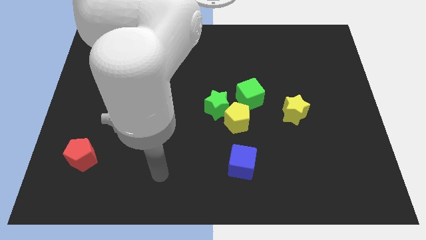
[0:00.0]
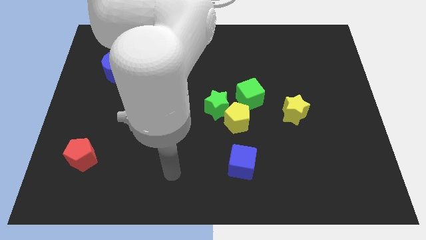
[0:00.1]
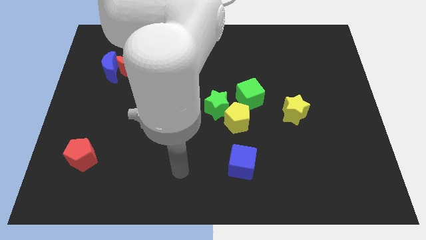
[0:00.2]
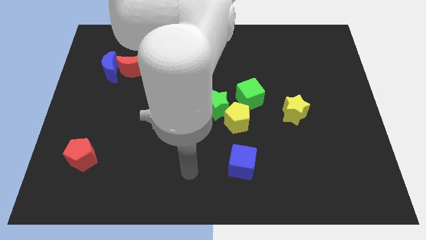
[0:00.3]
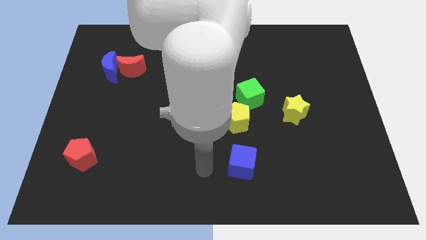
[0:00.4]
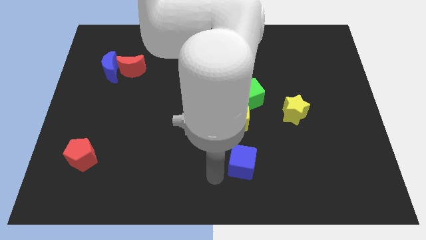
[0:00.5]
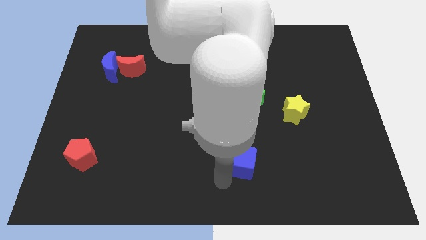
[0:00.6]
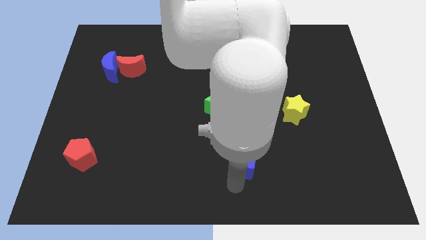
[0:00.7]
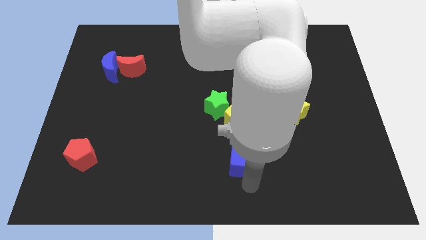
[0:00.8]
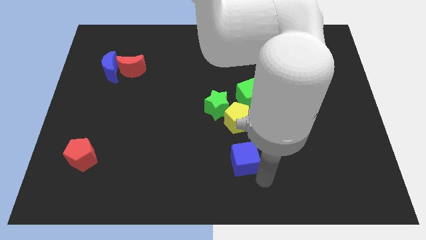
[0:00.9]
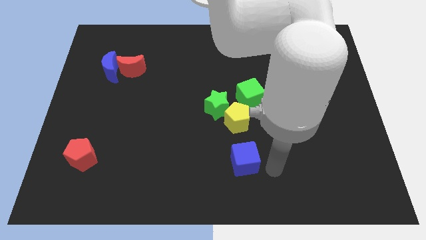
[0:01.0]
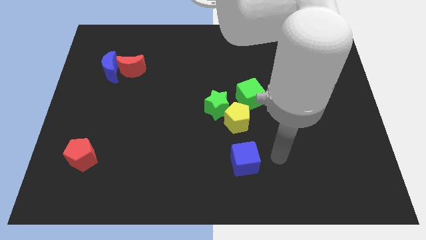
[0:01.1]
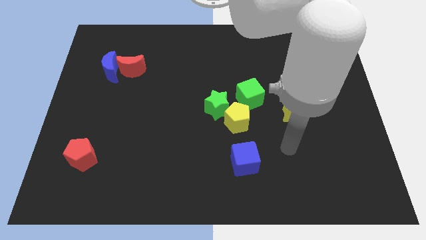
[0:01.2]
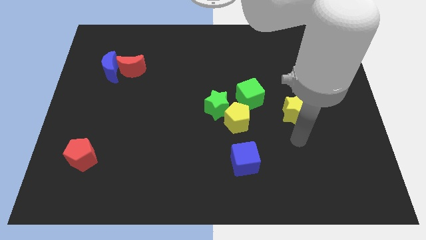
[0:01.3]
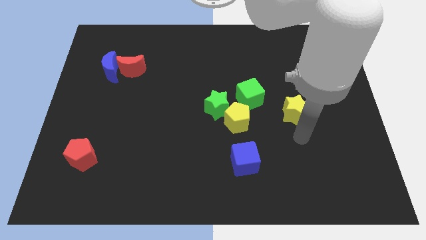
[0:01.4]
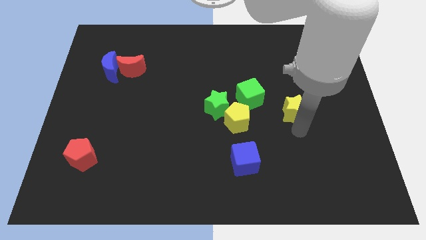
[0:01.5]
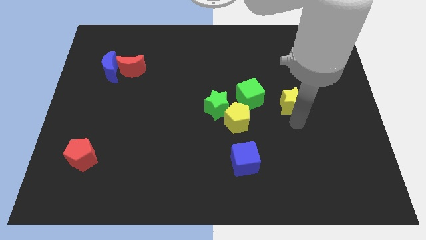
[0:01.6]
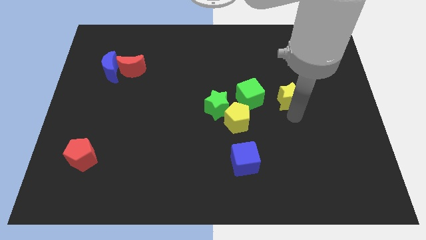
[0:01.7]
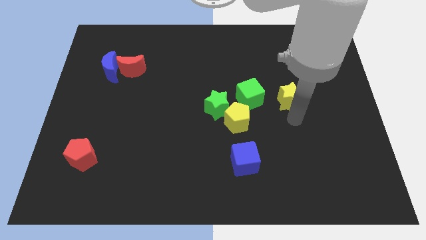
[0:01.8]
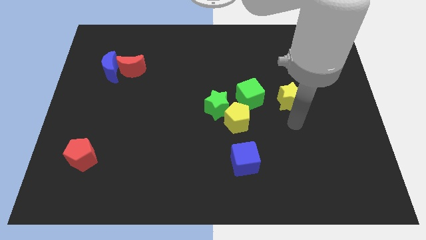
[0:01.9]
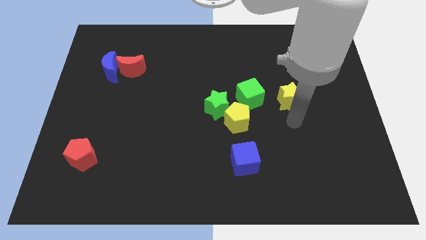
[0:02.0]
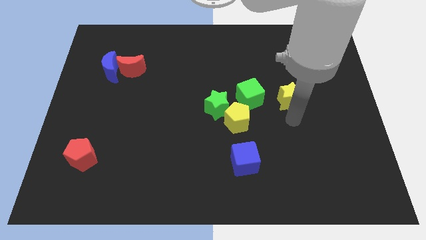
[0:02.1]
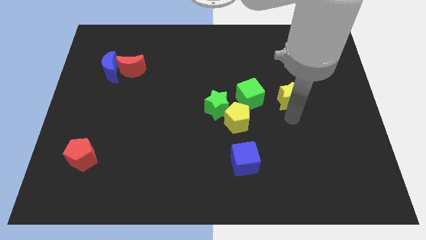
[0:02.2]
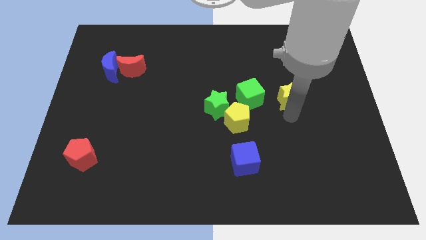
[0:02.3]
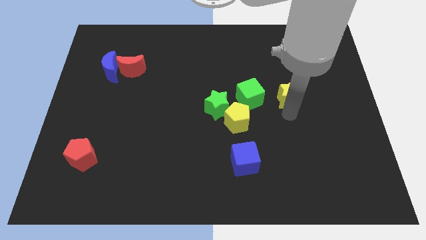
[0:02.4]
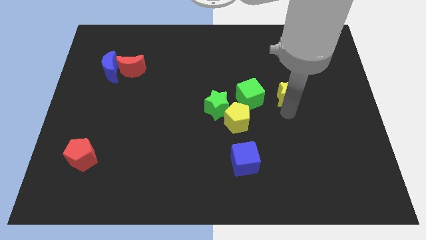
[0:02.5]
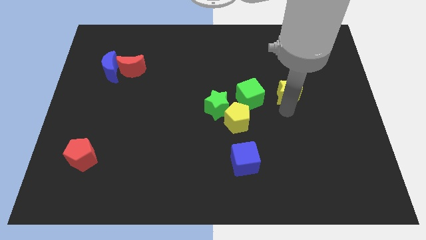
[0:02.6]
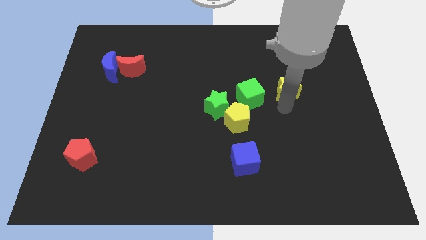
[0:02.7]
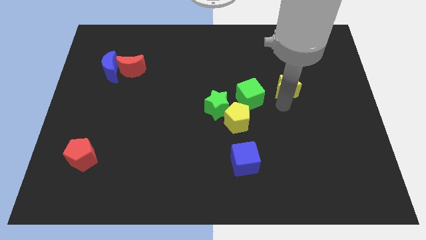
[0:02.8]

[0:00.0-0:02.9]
slightly push the yellow star up

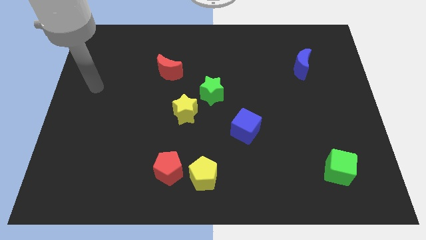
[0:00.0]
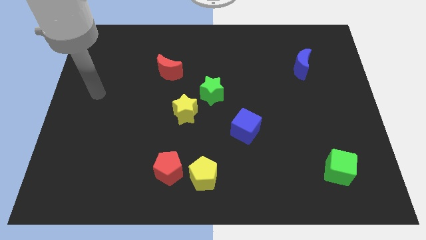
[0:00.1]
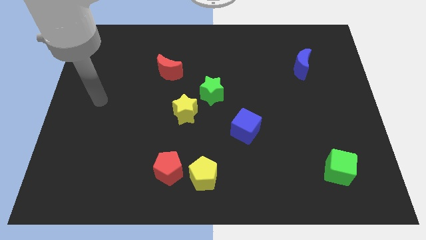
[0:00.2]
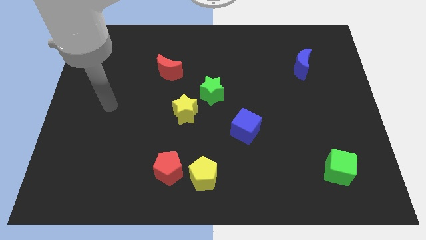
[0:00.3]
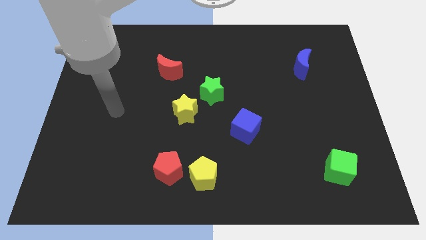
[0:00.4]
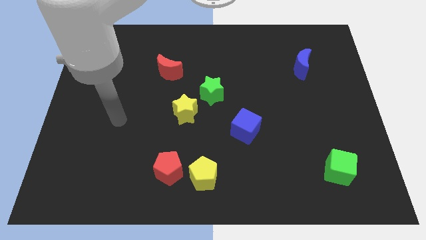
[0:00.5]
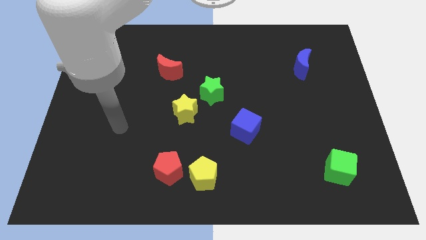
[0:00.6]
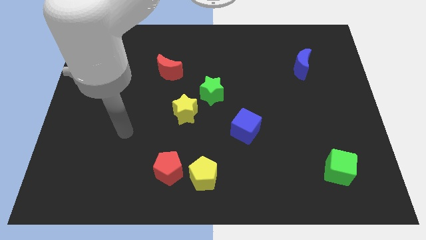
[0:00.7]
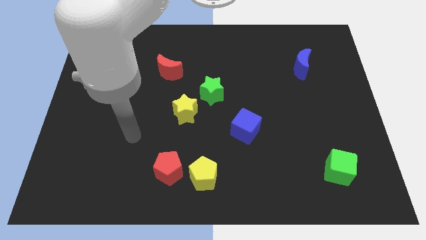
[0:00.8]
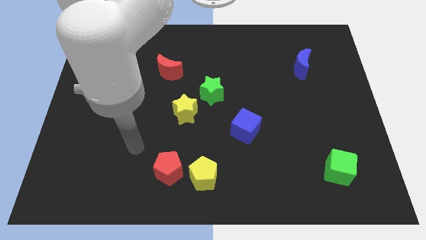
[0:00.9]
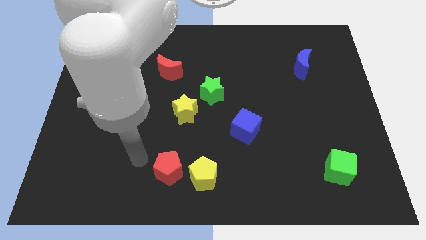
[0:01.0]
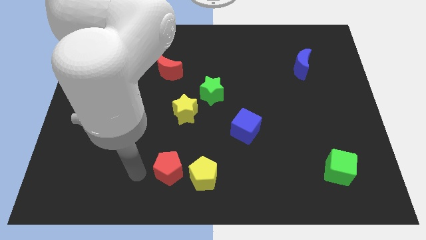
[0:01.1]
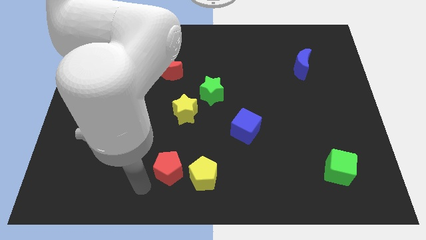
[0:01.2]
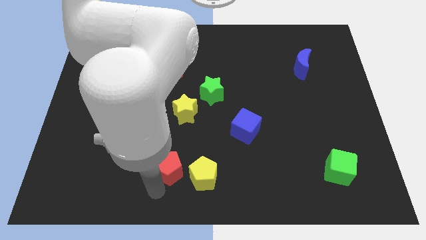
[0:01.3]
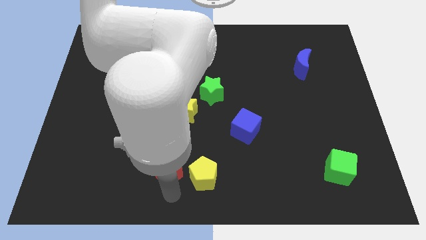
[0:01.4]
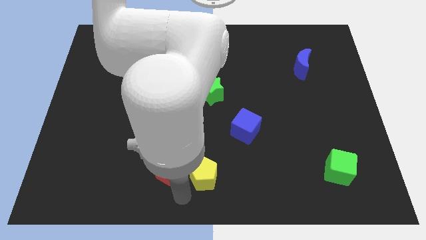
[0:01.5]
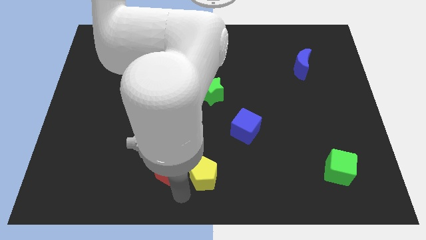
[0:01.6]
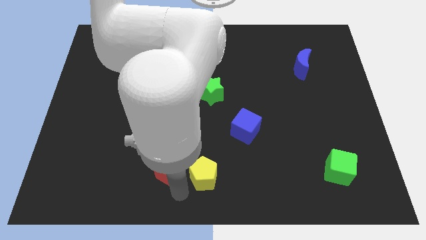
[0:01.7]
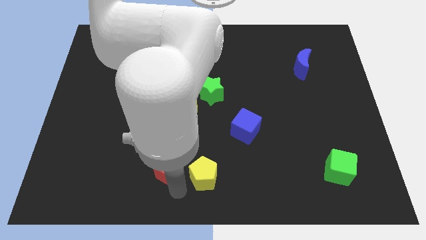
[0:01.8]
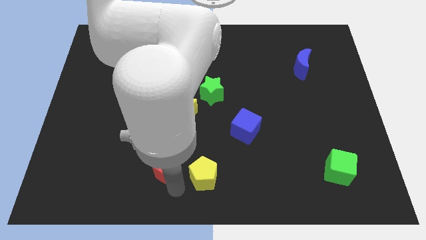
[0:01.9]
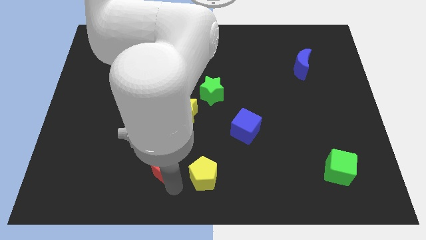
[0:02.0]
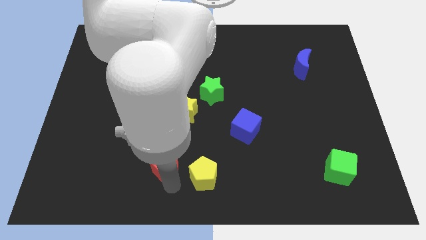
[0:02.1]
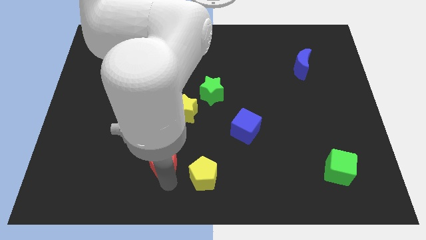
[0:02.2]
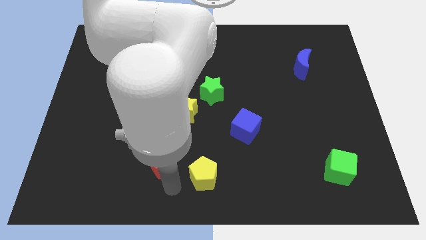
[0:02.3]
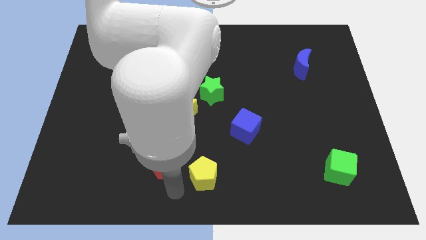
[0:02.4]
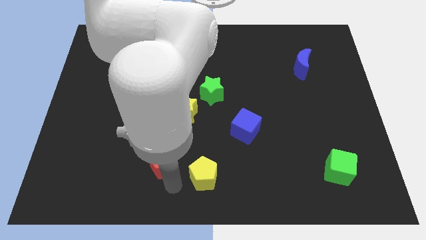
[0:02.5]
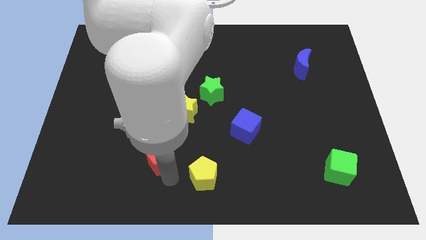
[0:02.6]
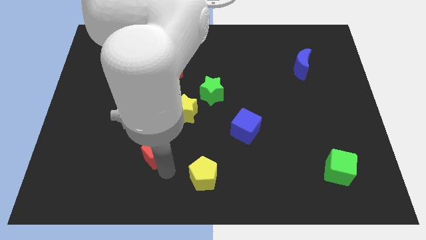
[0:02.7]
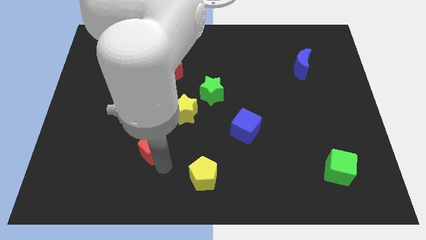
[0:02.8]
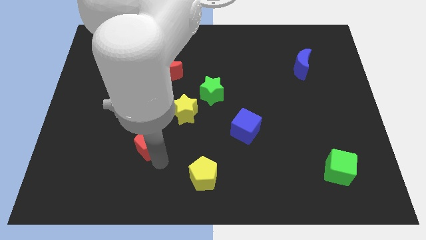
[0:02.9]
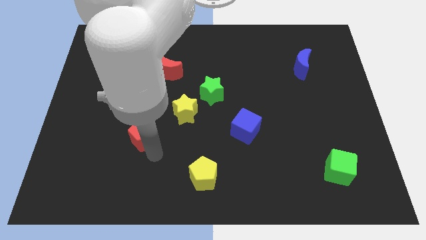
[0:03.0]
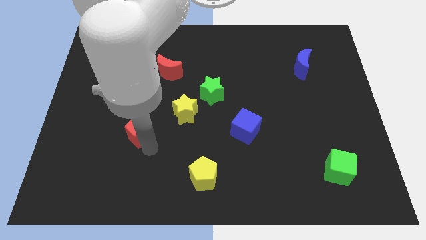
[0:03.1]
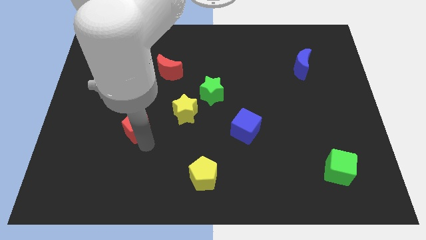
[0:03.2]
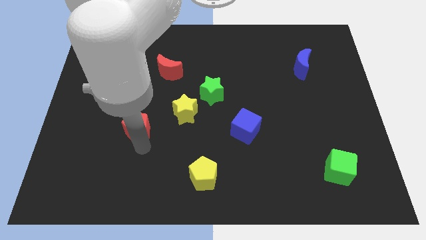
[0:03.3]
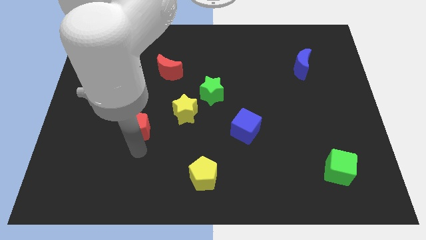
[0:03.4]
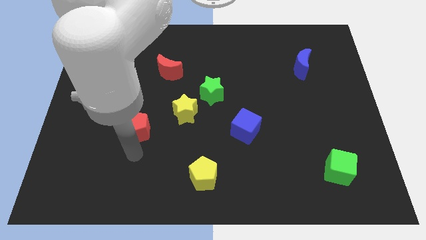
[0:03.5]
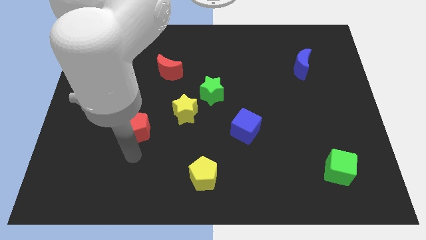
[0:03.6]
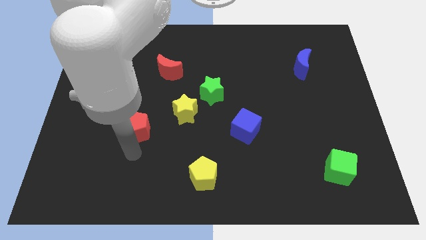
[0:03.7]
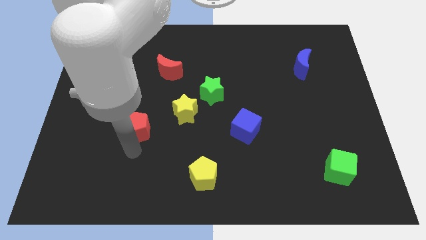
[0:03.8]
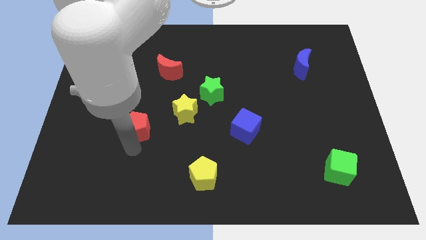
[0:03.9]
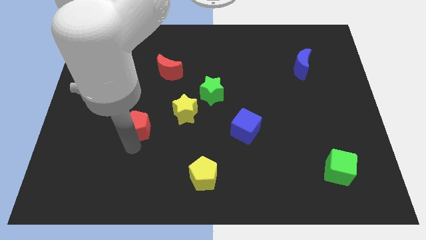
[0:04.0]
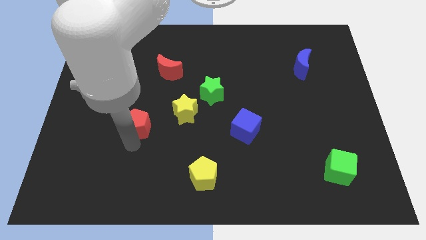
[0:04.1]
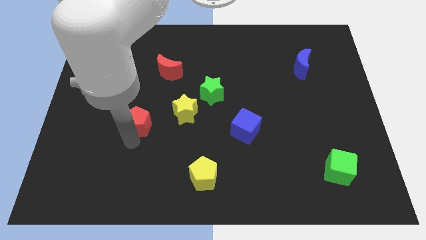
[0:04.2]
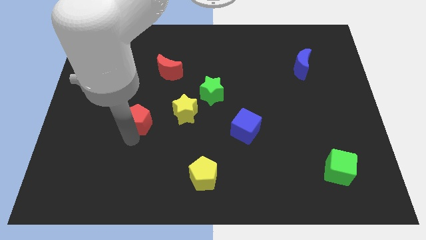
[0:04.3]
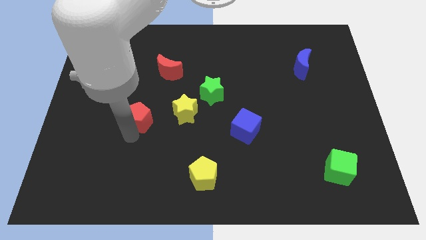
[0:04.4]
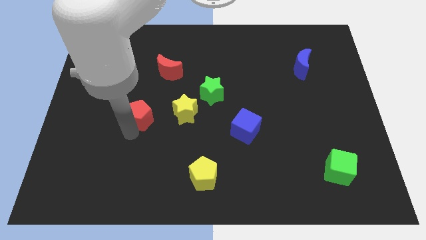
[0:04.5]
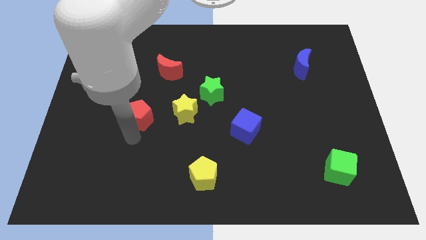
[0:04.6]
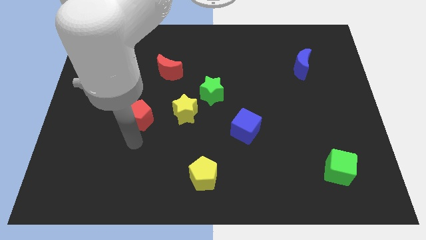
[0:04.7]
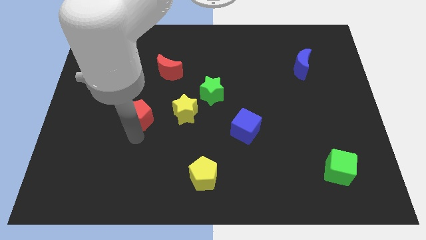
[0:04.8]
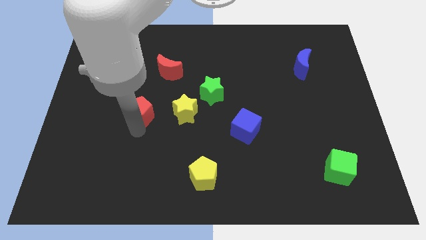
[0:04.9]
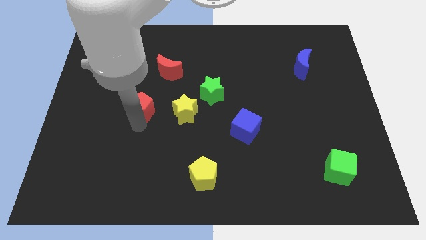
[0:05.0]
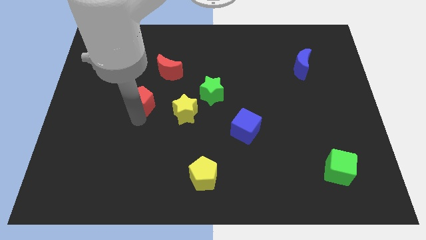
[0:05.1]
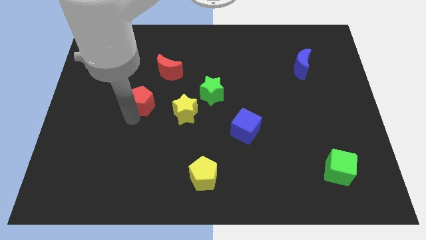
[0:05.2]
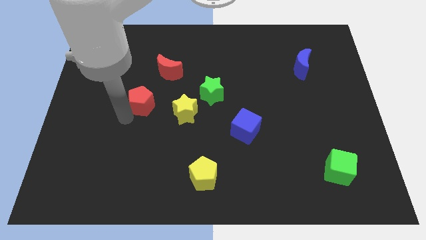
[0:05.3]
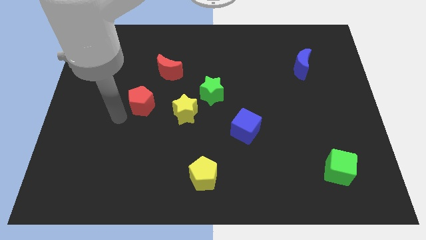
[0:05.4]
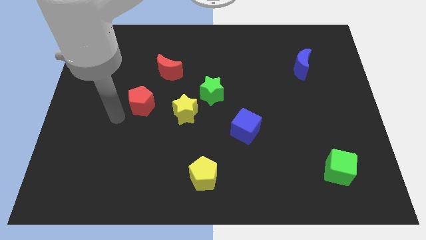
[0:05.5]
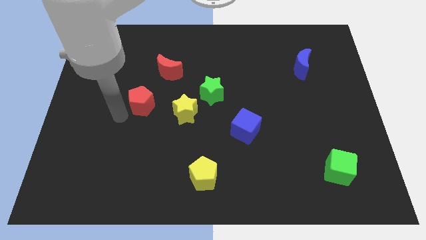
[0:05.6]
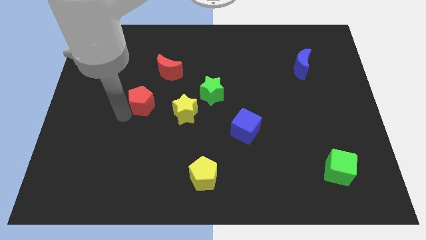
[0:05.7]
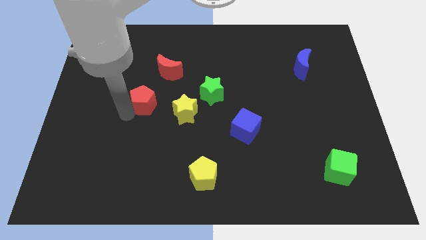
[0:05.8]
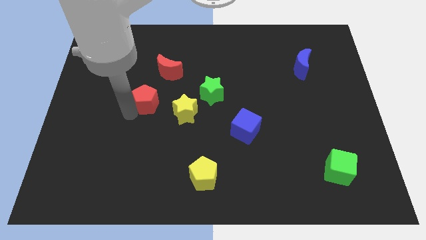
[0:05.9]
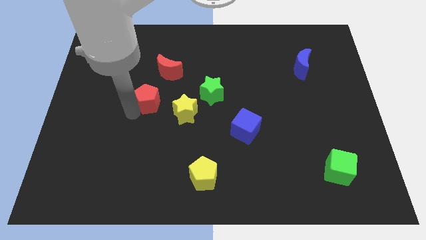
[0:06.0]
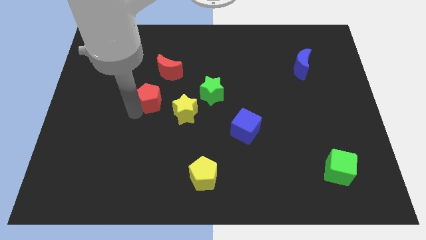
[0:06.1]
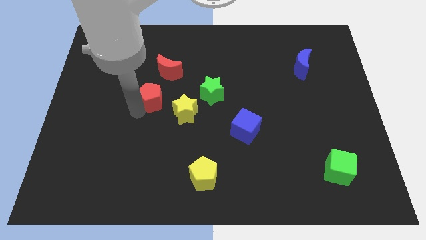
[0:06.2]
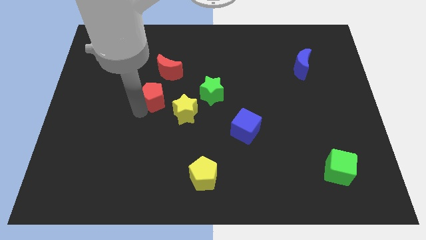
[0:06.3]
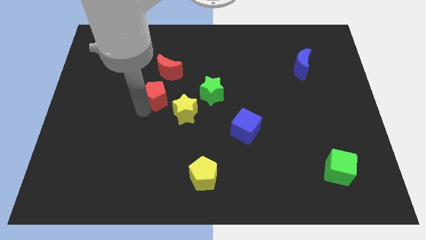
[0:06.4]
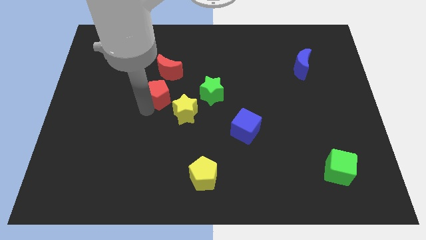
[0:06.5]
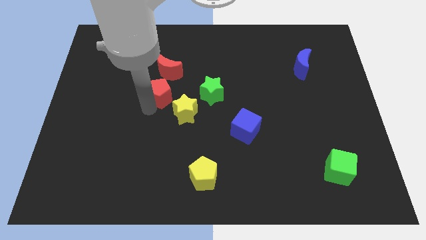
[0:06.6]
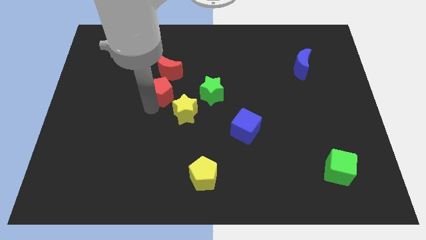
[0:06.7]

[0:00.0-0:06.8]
push the red pentagon up
